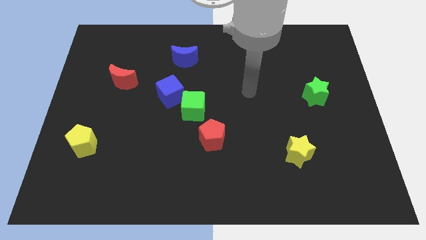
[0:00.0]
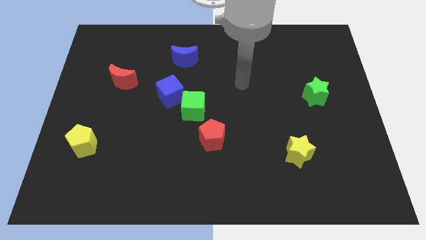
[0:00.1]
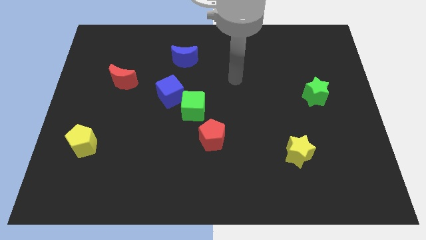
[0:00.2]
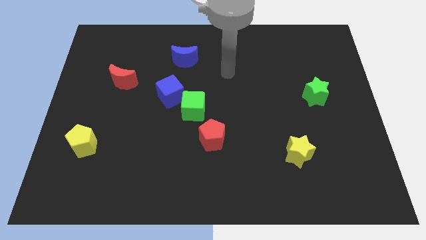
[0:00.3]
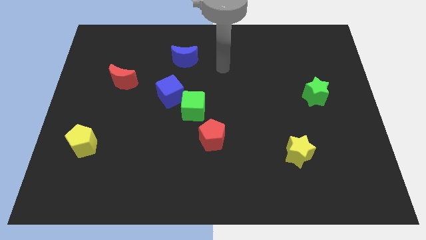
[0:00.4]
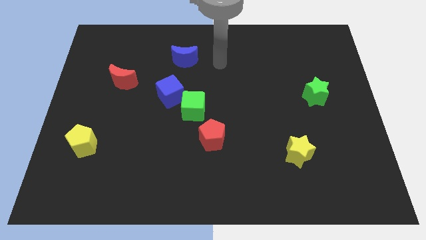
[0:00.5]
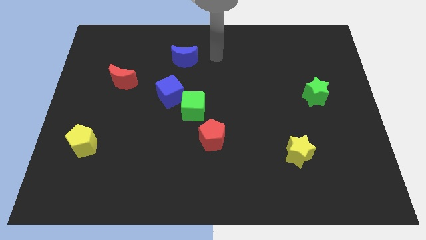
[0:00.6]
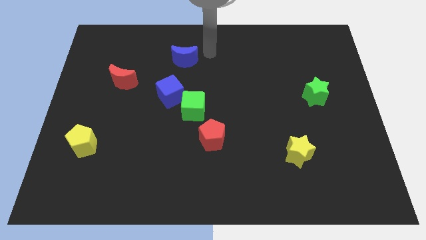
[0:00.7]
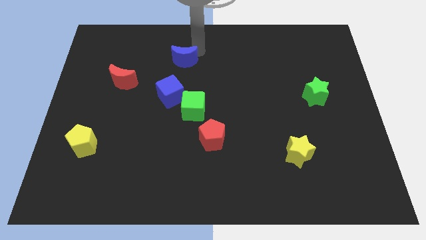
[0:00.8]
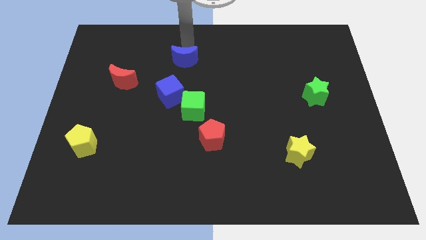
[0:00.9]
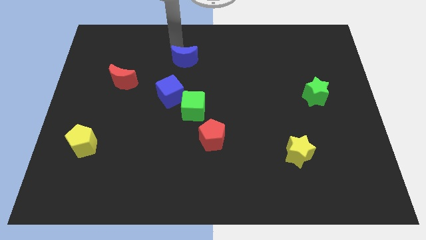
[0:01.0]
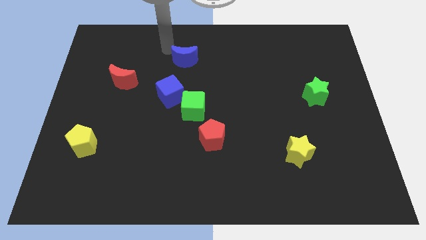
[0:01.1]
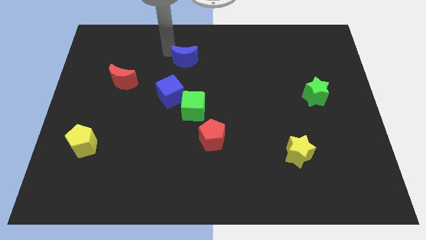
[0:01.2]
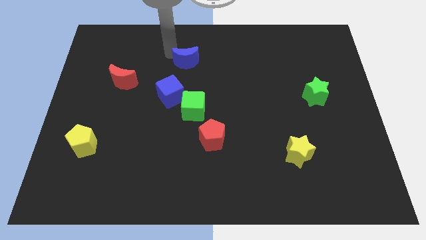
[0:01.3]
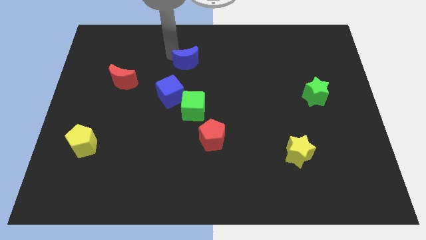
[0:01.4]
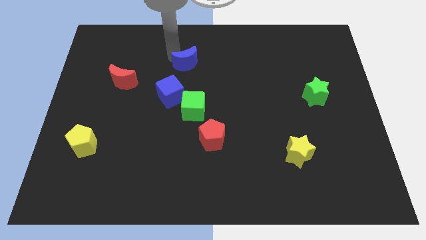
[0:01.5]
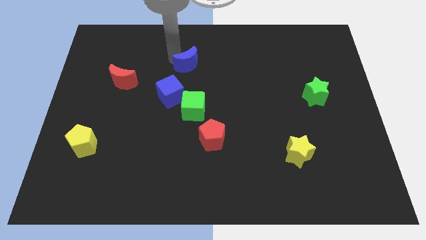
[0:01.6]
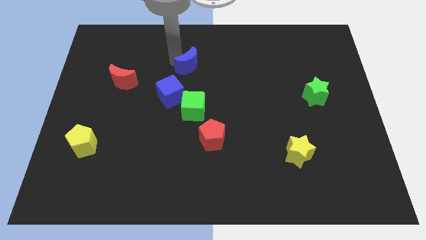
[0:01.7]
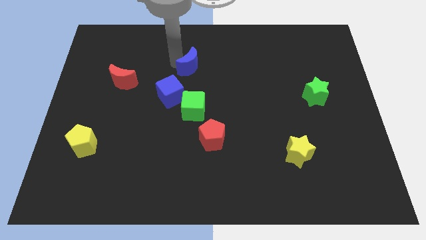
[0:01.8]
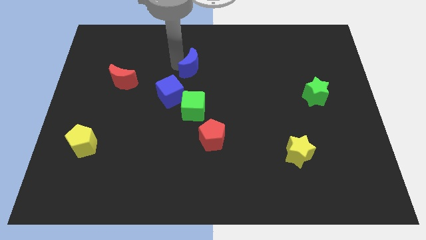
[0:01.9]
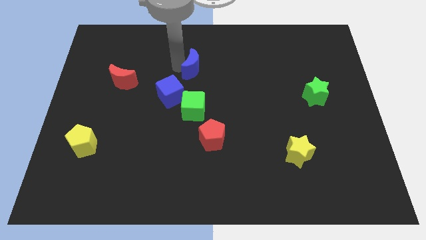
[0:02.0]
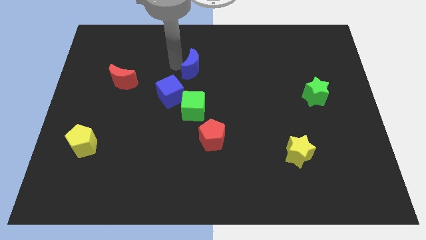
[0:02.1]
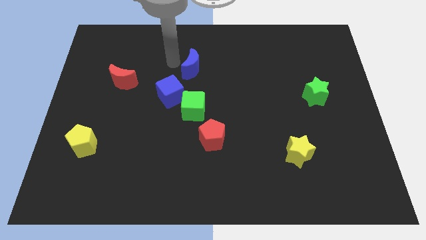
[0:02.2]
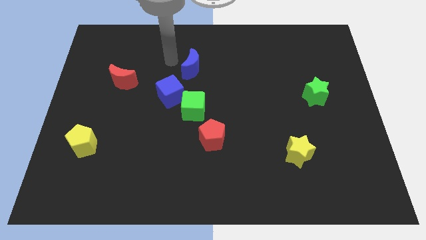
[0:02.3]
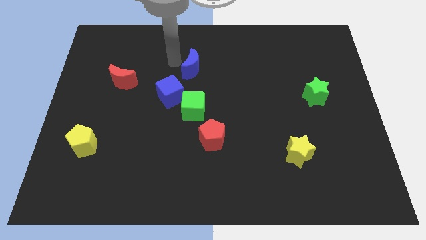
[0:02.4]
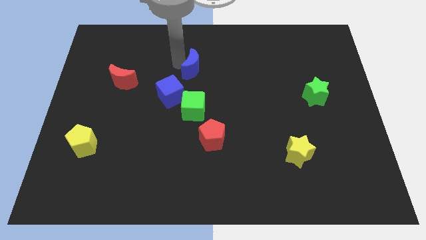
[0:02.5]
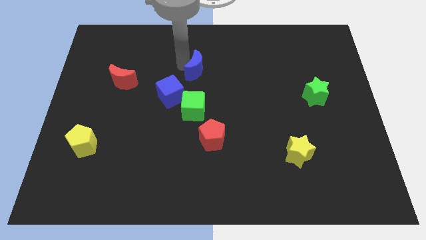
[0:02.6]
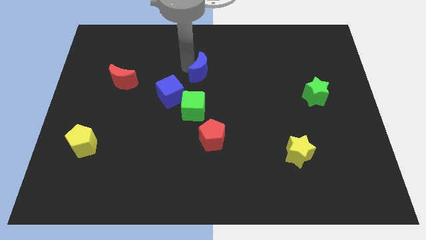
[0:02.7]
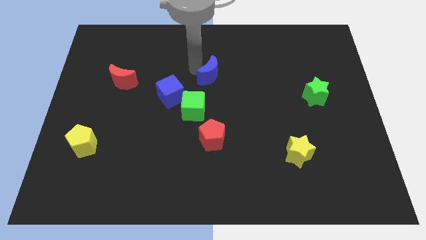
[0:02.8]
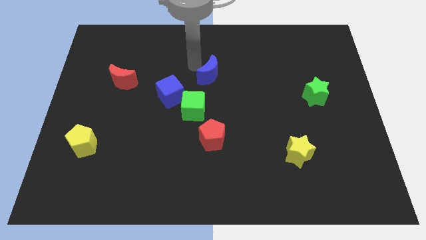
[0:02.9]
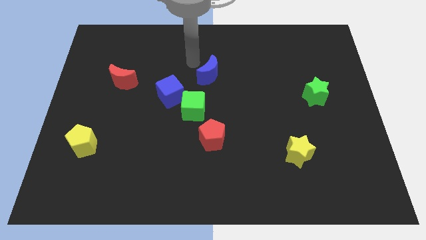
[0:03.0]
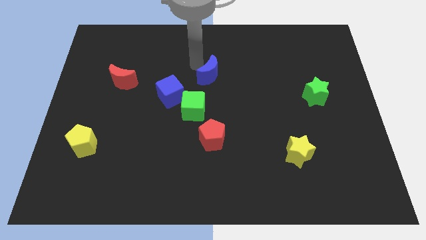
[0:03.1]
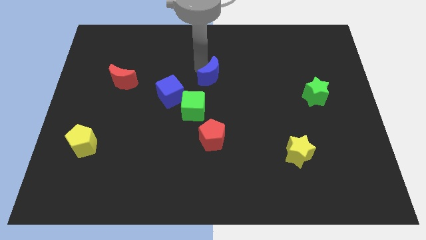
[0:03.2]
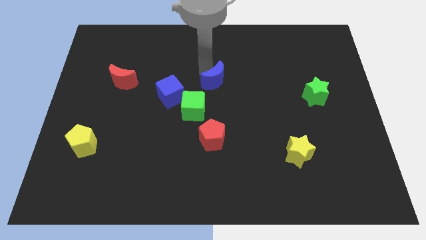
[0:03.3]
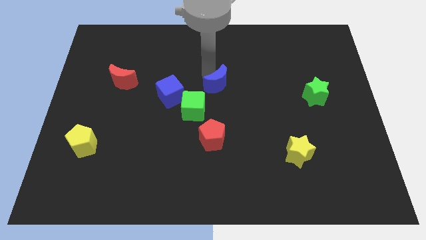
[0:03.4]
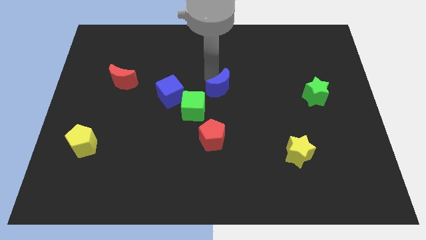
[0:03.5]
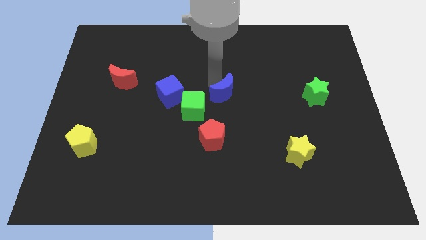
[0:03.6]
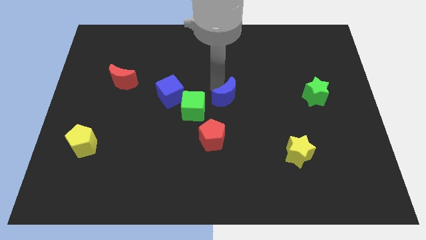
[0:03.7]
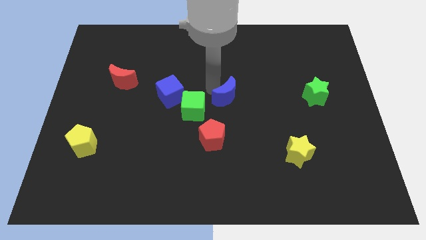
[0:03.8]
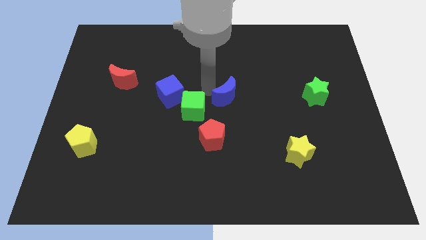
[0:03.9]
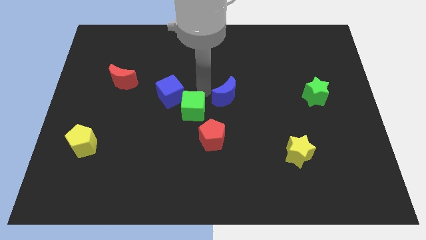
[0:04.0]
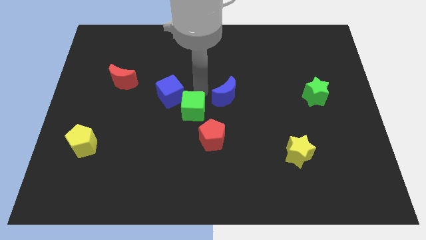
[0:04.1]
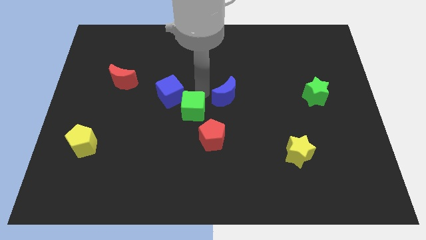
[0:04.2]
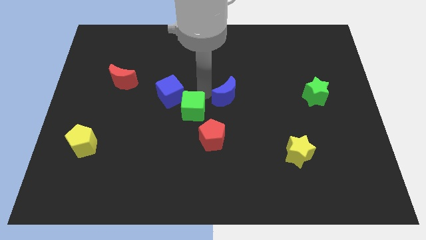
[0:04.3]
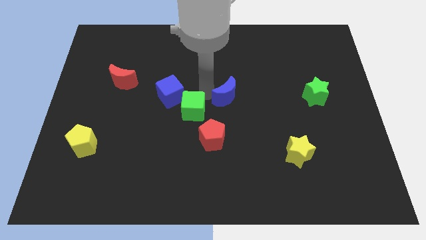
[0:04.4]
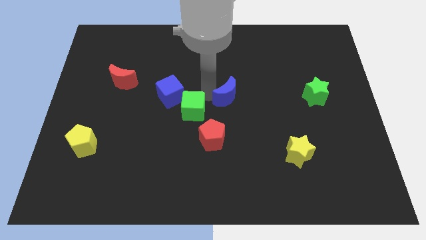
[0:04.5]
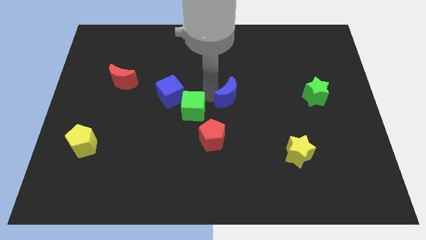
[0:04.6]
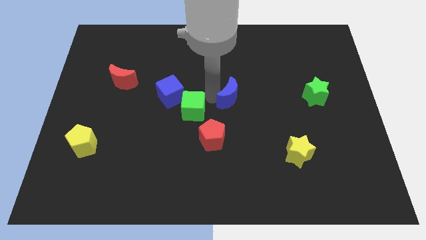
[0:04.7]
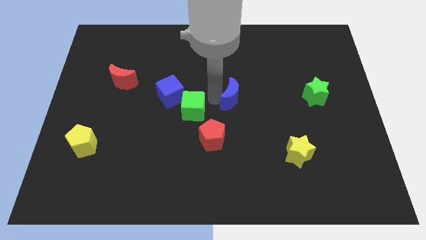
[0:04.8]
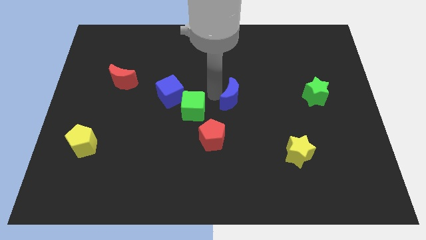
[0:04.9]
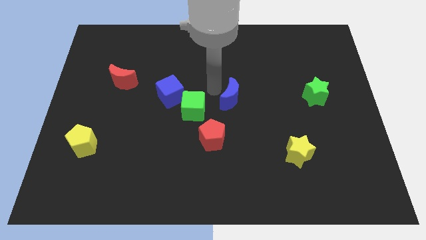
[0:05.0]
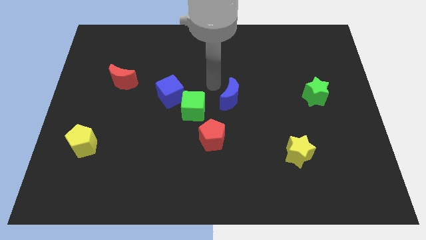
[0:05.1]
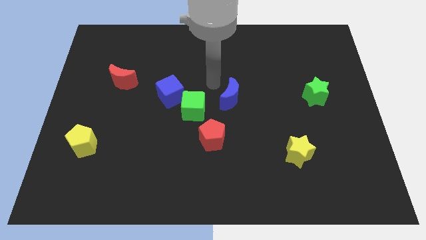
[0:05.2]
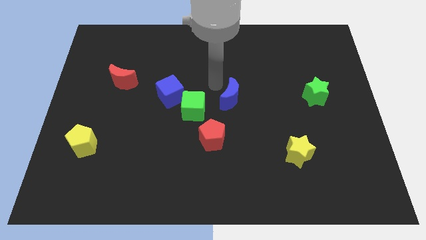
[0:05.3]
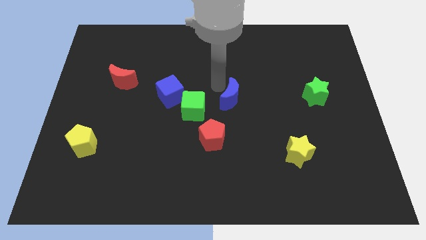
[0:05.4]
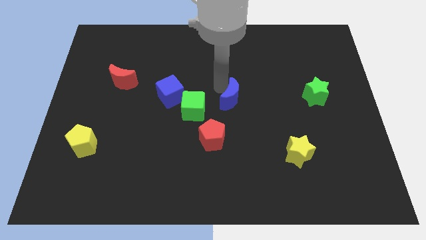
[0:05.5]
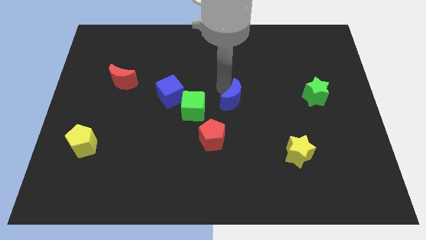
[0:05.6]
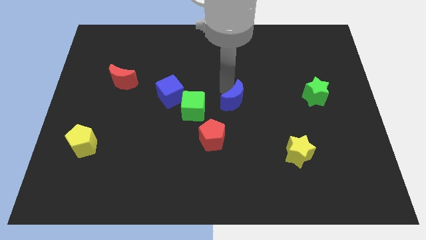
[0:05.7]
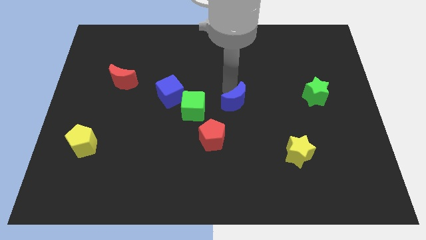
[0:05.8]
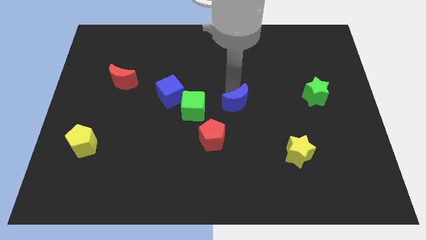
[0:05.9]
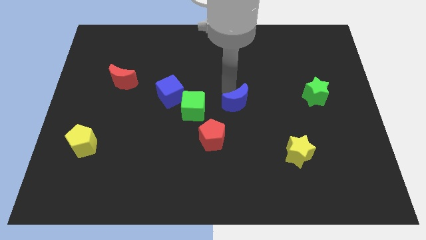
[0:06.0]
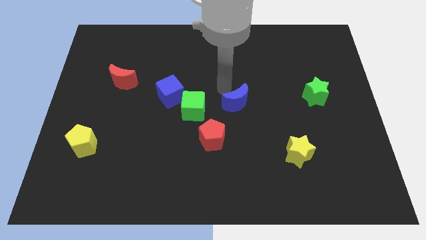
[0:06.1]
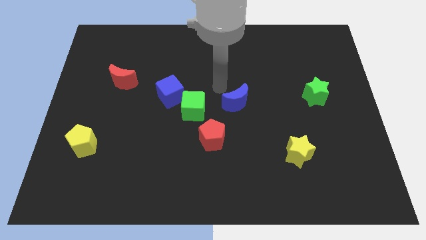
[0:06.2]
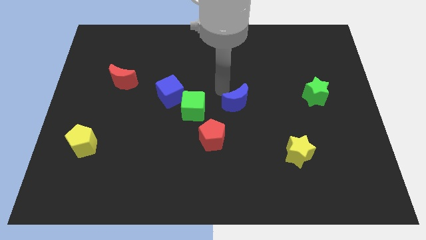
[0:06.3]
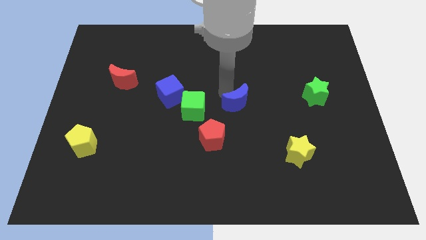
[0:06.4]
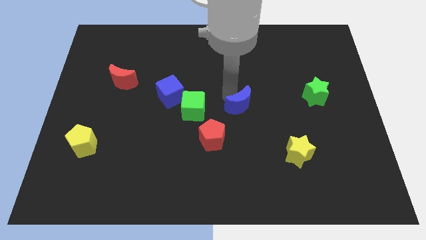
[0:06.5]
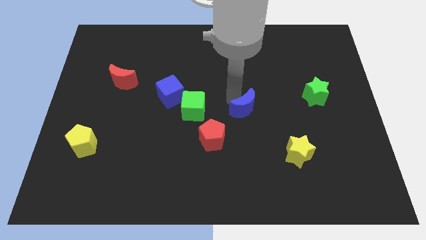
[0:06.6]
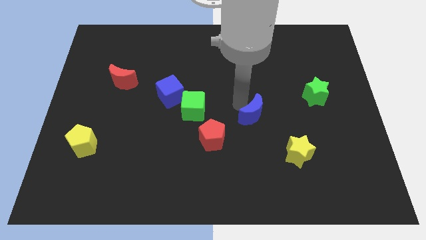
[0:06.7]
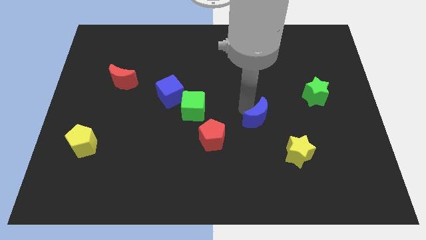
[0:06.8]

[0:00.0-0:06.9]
slide the blue moon to the top left of the yellow star

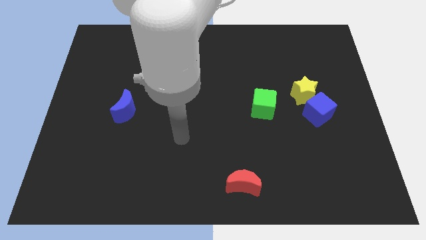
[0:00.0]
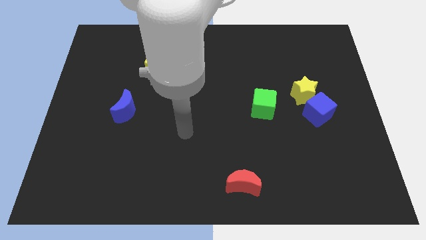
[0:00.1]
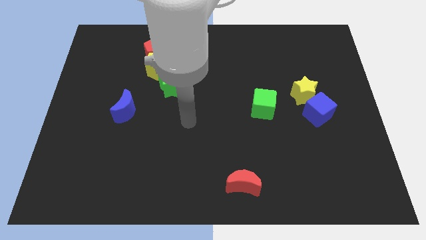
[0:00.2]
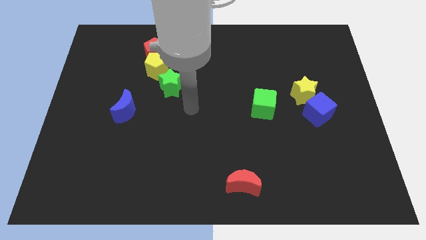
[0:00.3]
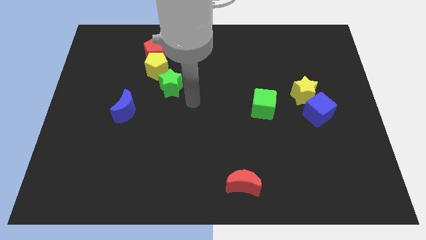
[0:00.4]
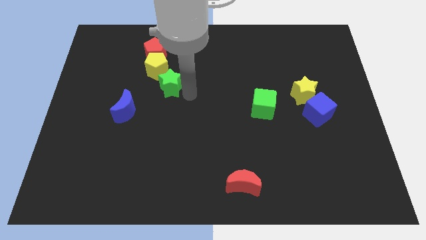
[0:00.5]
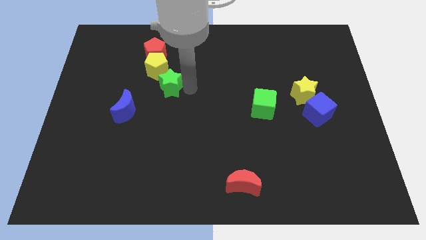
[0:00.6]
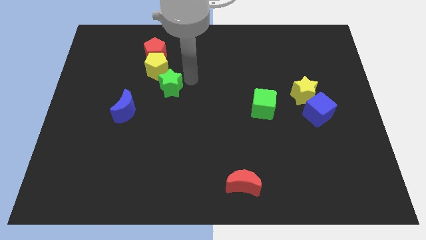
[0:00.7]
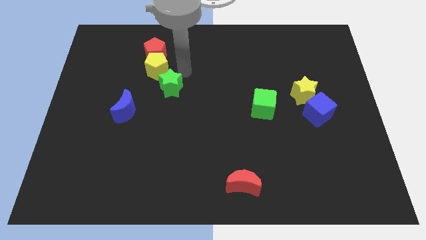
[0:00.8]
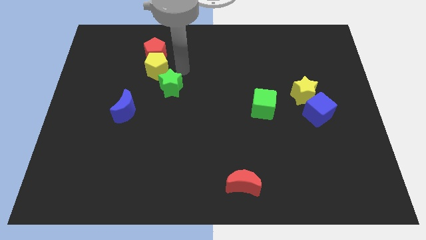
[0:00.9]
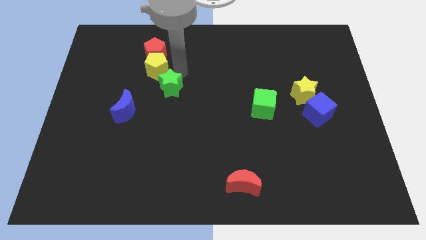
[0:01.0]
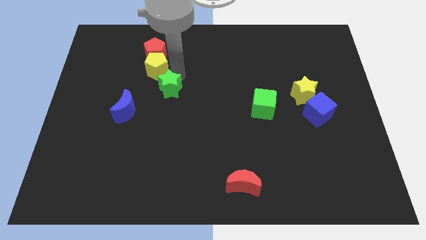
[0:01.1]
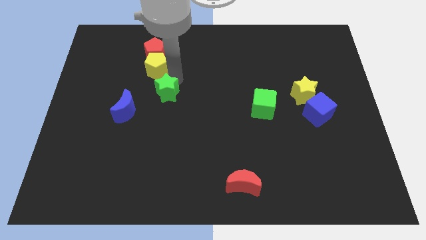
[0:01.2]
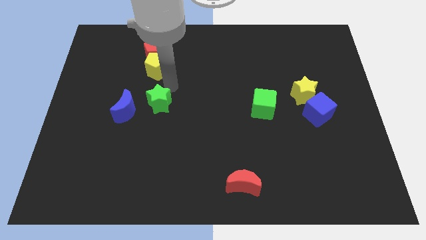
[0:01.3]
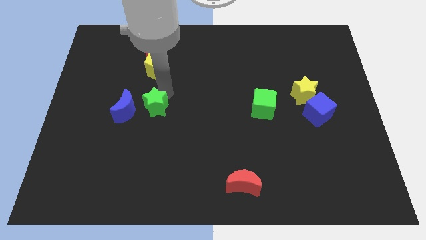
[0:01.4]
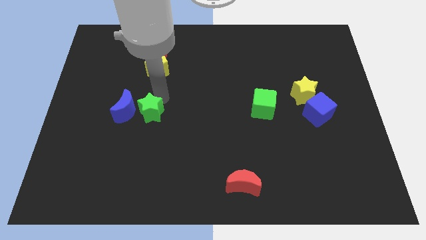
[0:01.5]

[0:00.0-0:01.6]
push the green star diagonally down and to the right of the blue moon
